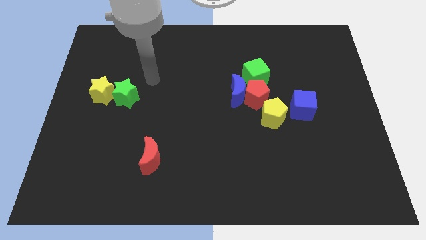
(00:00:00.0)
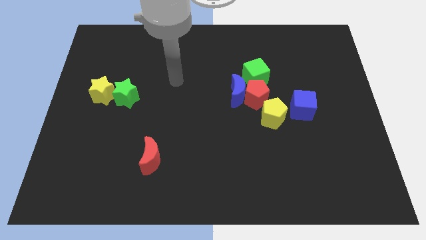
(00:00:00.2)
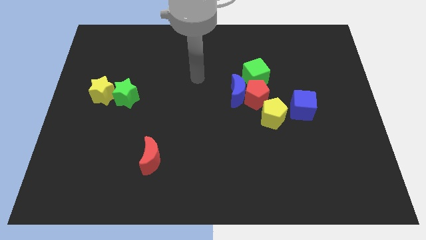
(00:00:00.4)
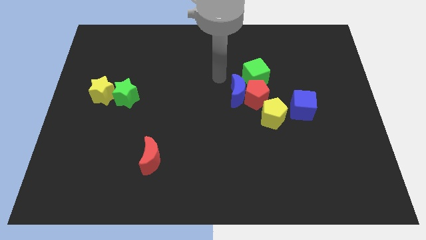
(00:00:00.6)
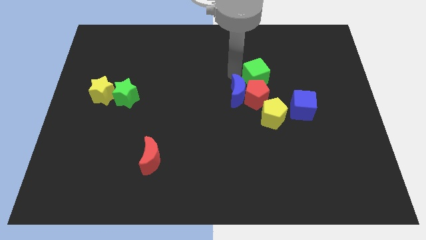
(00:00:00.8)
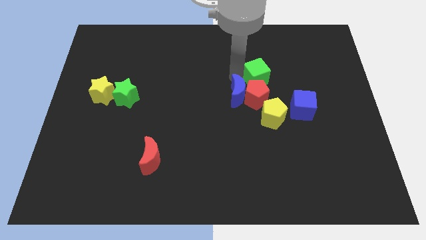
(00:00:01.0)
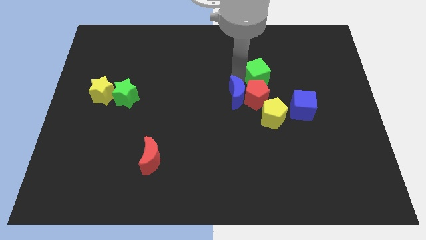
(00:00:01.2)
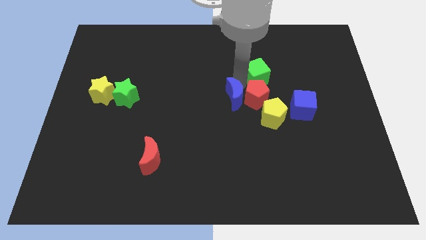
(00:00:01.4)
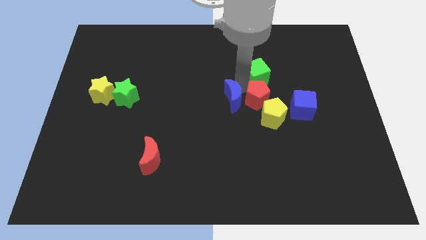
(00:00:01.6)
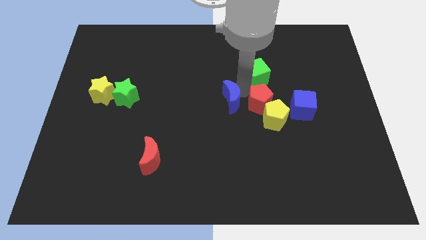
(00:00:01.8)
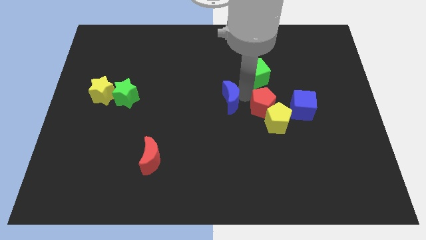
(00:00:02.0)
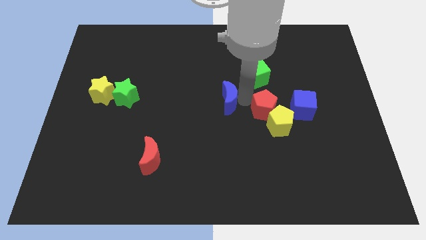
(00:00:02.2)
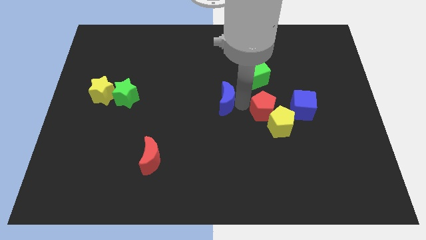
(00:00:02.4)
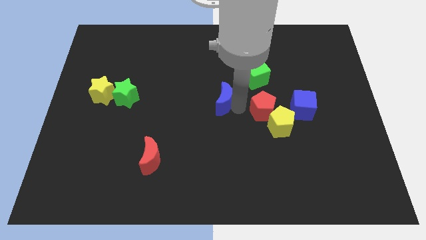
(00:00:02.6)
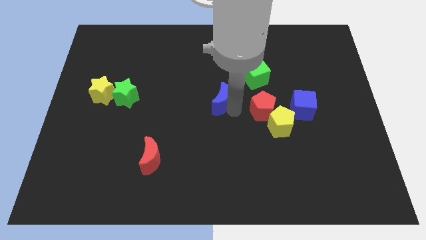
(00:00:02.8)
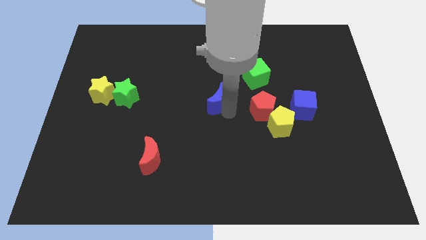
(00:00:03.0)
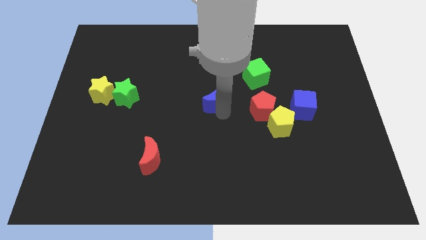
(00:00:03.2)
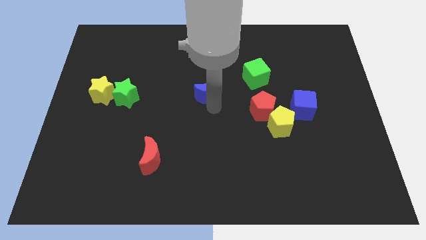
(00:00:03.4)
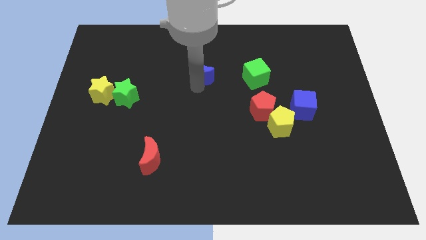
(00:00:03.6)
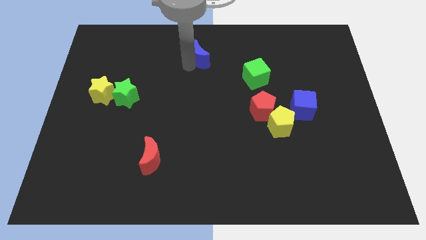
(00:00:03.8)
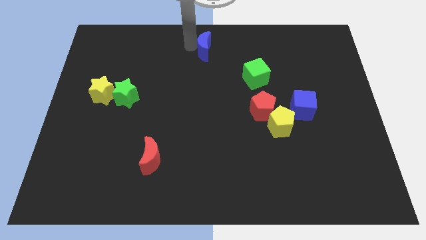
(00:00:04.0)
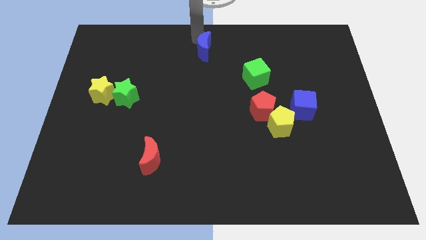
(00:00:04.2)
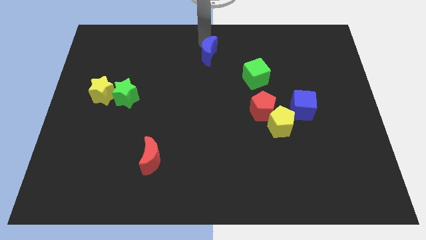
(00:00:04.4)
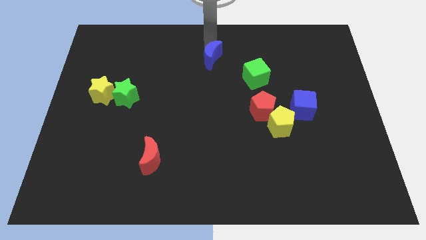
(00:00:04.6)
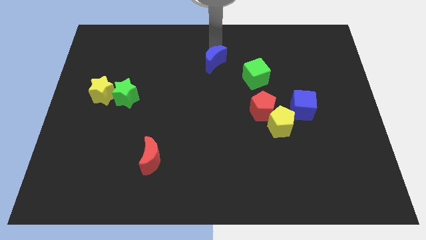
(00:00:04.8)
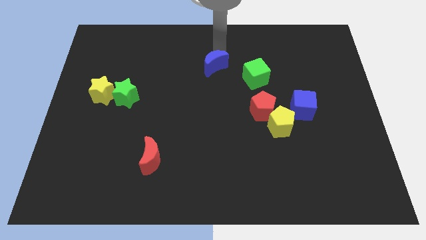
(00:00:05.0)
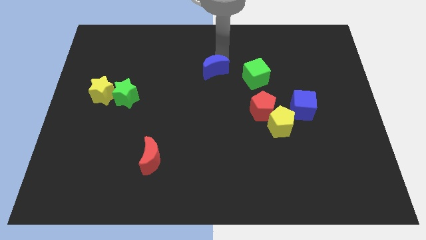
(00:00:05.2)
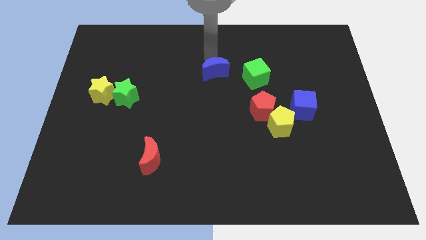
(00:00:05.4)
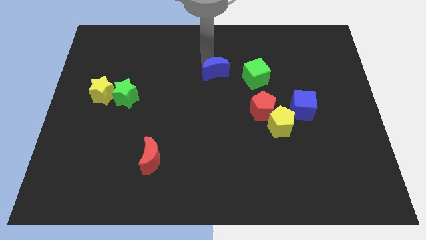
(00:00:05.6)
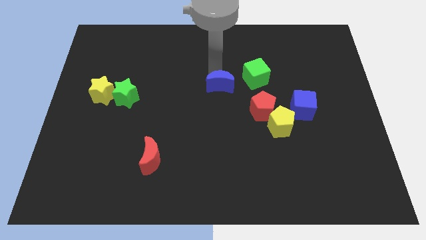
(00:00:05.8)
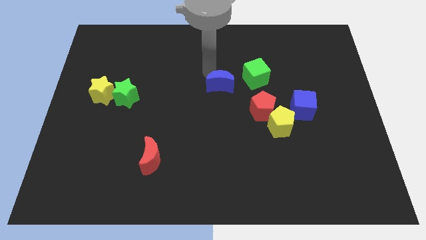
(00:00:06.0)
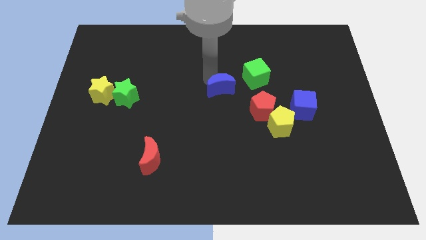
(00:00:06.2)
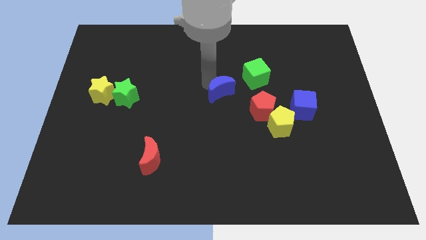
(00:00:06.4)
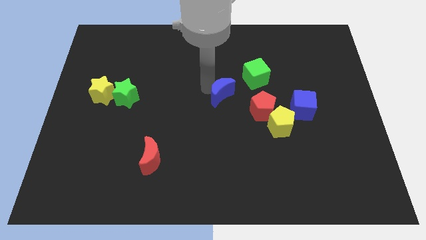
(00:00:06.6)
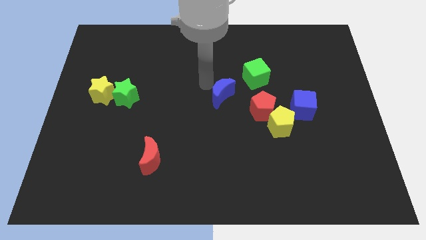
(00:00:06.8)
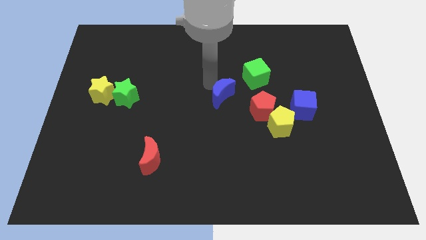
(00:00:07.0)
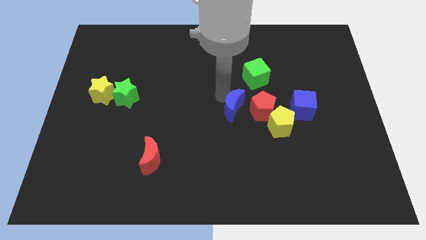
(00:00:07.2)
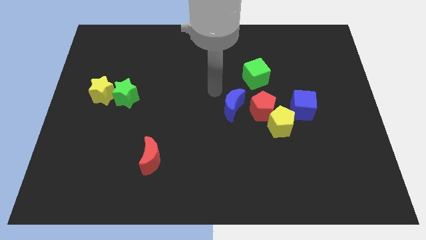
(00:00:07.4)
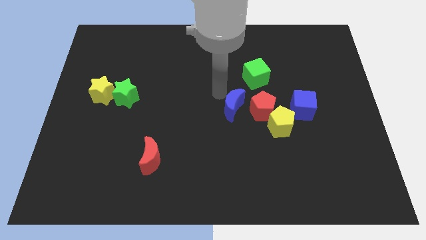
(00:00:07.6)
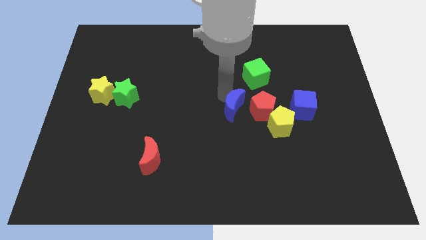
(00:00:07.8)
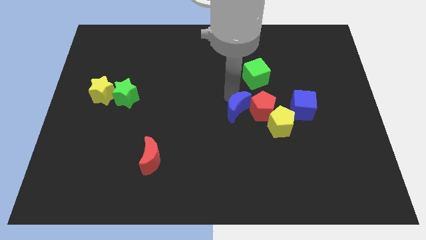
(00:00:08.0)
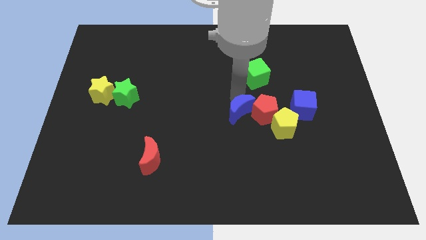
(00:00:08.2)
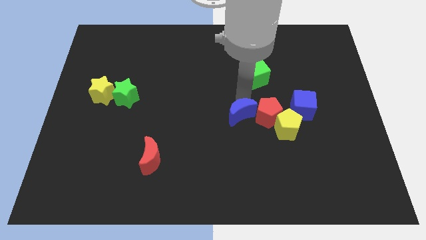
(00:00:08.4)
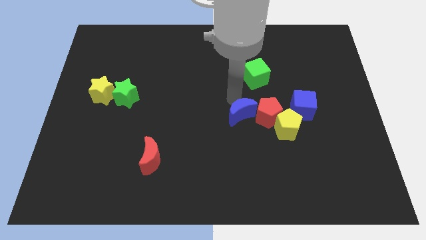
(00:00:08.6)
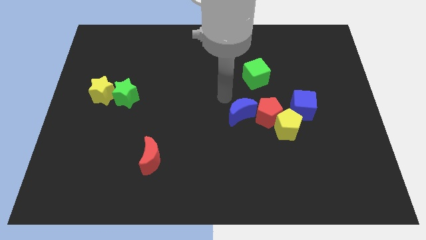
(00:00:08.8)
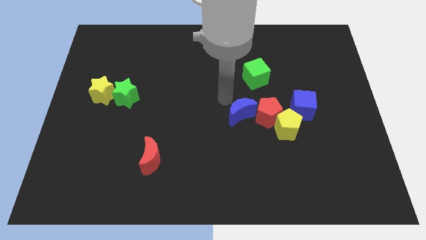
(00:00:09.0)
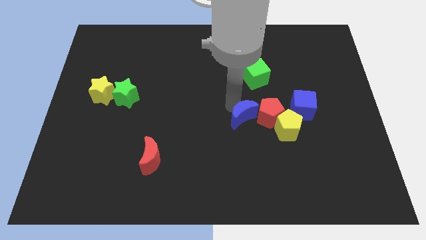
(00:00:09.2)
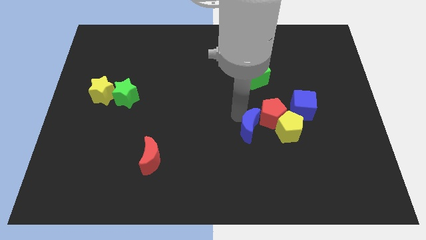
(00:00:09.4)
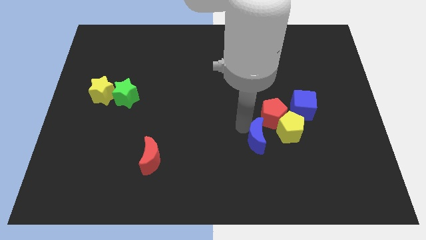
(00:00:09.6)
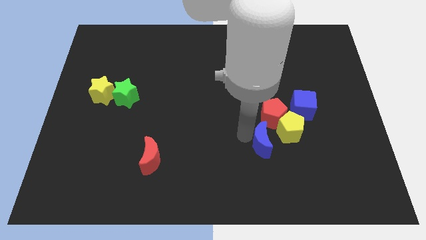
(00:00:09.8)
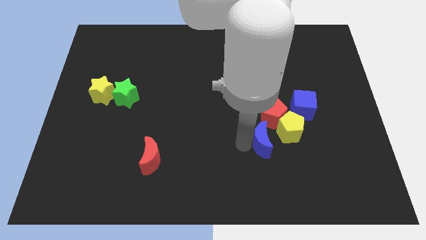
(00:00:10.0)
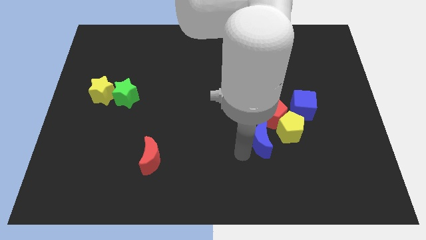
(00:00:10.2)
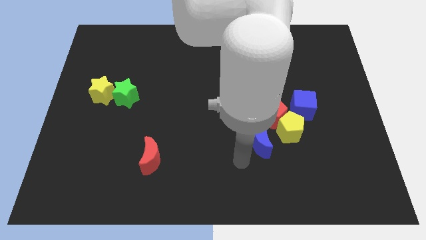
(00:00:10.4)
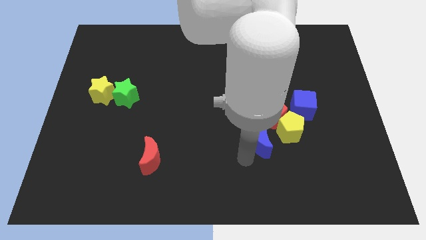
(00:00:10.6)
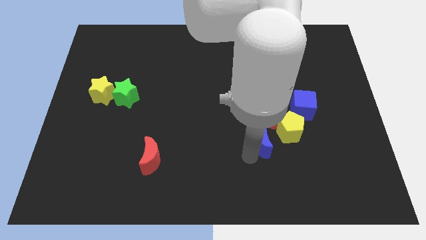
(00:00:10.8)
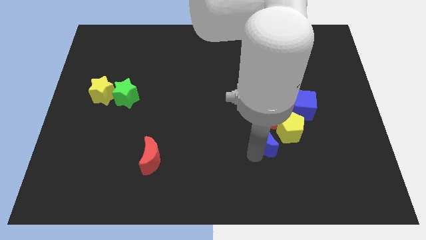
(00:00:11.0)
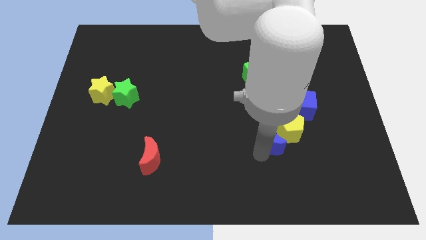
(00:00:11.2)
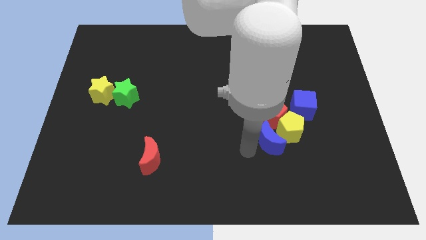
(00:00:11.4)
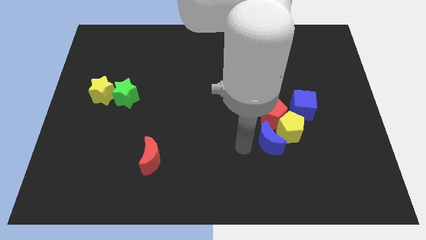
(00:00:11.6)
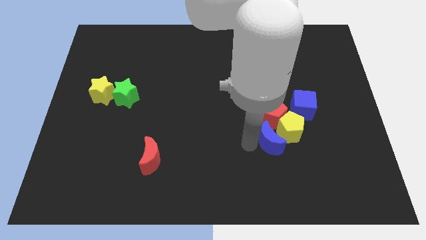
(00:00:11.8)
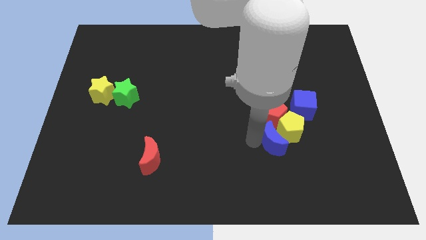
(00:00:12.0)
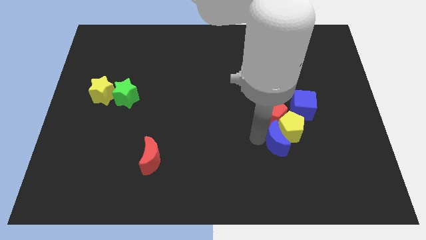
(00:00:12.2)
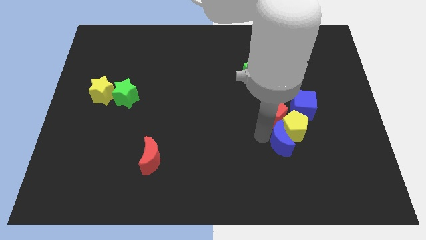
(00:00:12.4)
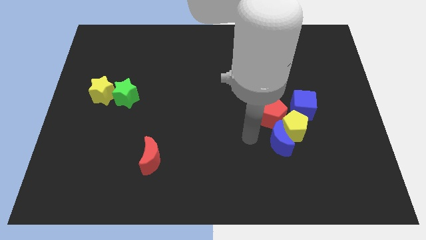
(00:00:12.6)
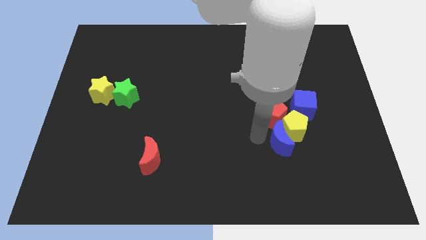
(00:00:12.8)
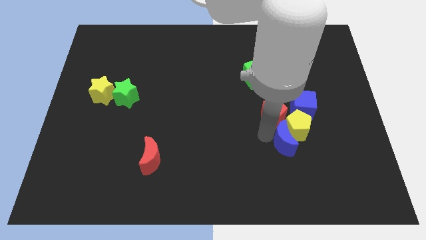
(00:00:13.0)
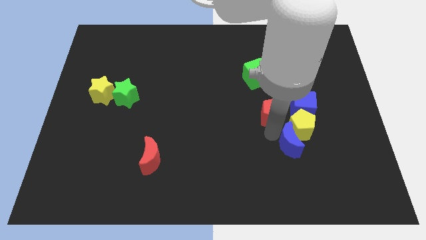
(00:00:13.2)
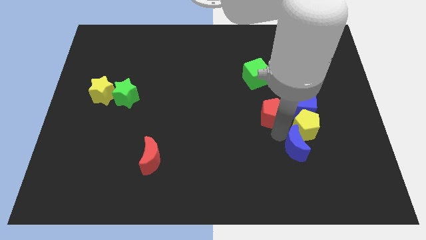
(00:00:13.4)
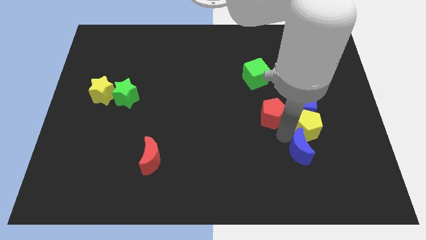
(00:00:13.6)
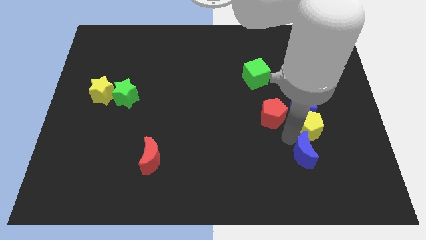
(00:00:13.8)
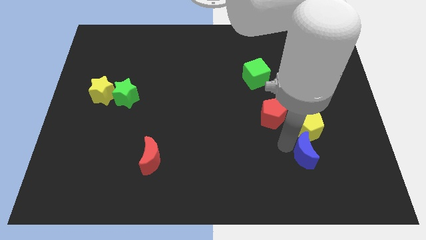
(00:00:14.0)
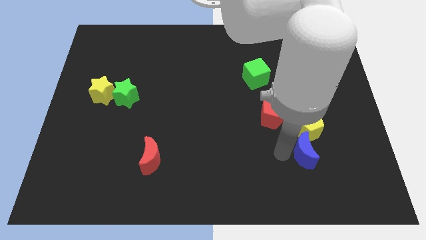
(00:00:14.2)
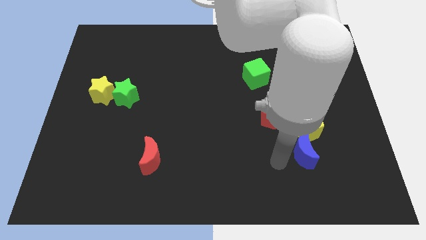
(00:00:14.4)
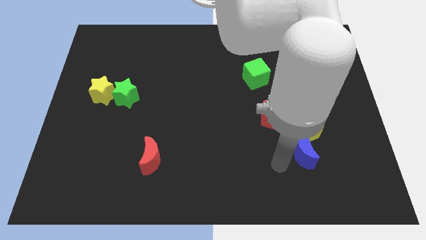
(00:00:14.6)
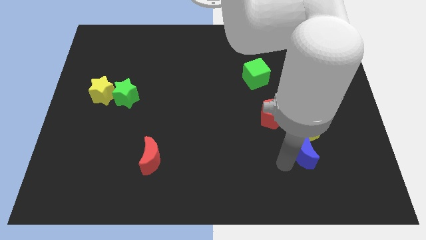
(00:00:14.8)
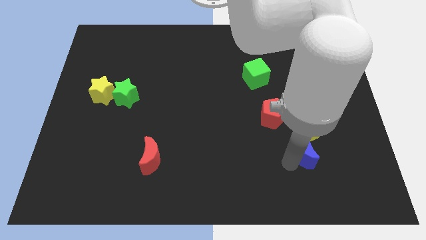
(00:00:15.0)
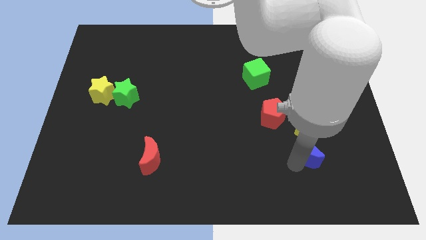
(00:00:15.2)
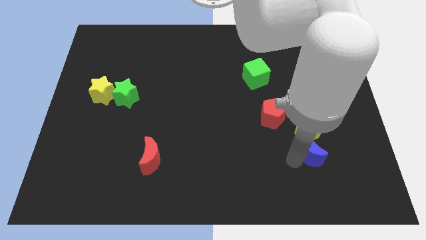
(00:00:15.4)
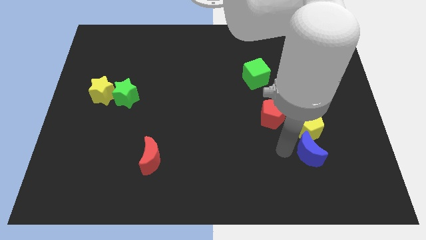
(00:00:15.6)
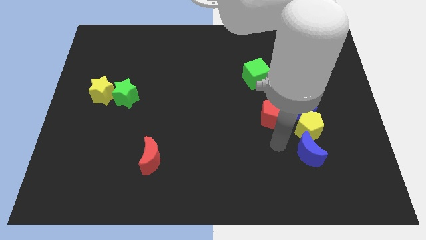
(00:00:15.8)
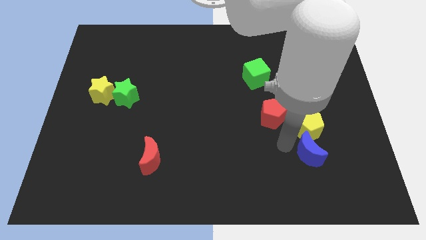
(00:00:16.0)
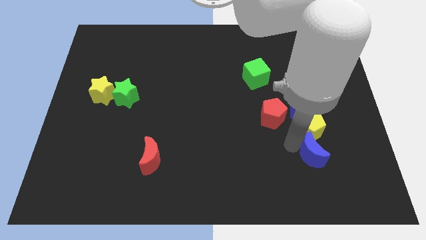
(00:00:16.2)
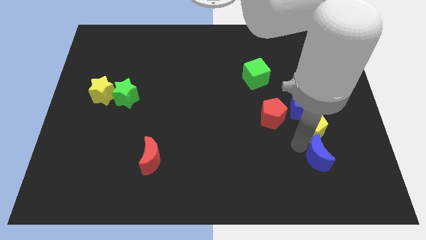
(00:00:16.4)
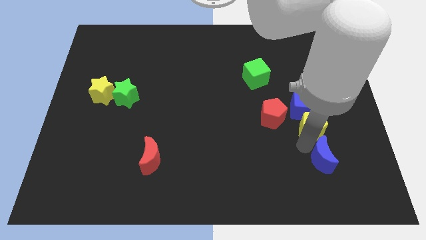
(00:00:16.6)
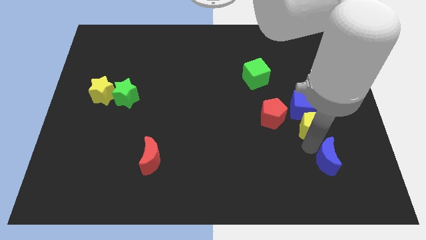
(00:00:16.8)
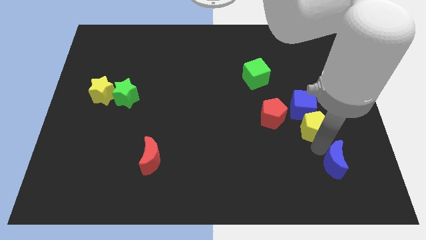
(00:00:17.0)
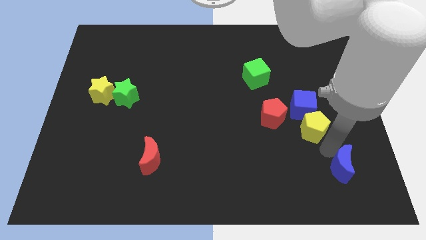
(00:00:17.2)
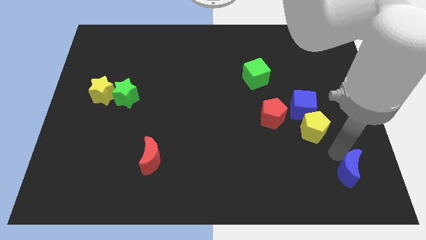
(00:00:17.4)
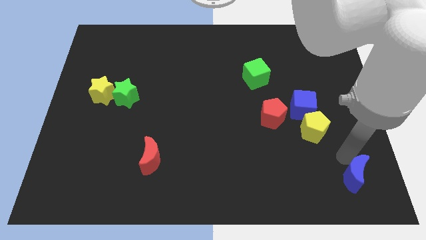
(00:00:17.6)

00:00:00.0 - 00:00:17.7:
put the blue moon to the bottom right of the board
